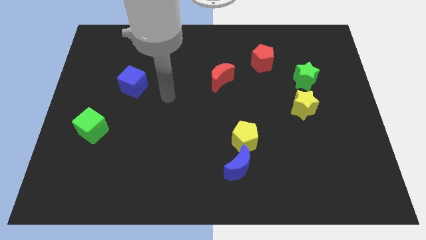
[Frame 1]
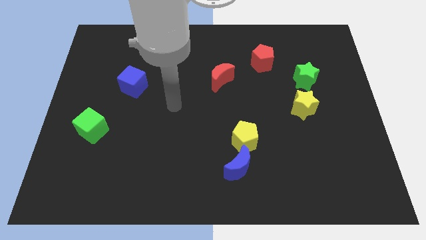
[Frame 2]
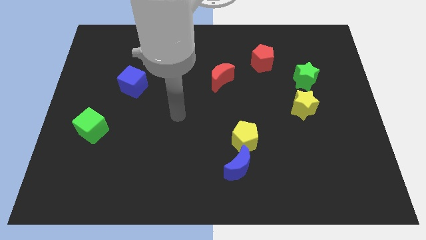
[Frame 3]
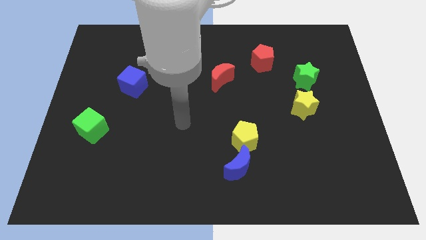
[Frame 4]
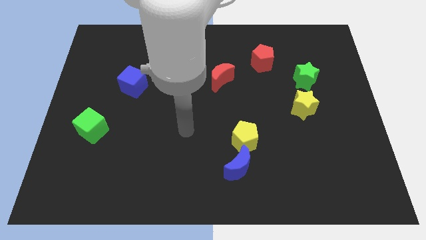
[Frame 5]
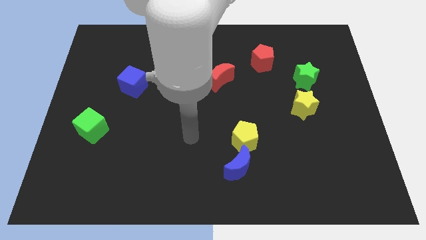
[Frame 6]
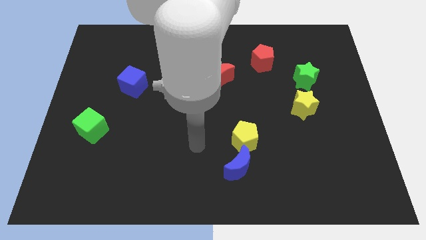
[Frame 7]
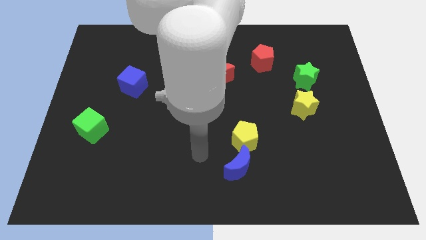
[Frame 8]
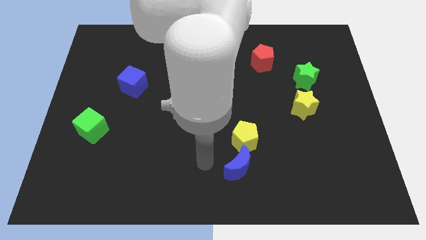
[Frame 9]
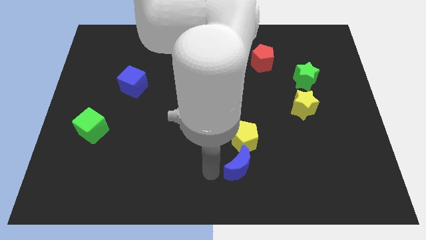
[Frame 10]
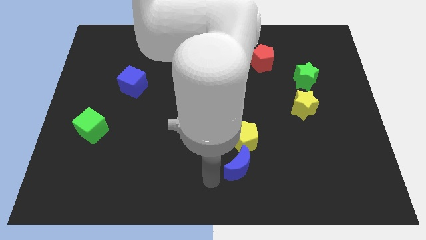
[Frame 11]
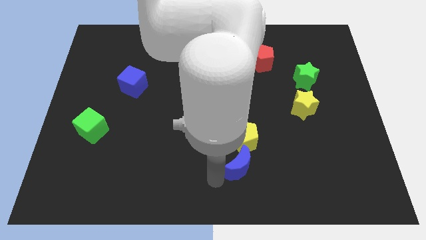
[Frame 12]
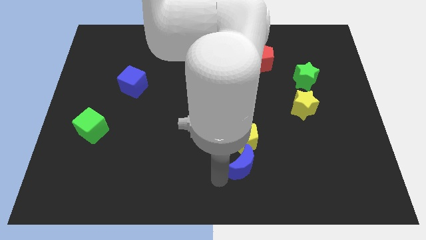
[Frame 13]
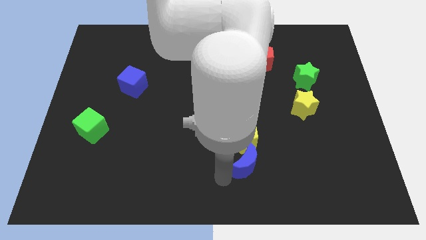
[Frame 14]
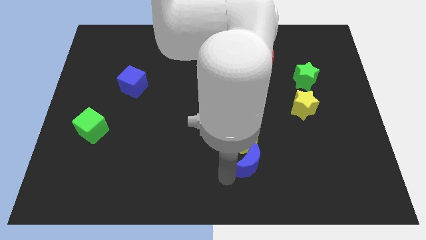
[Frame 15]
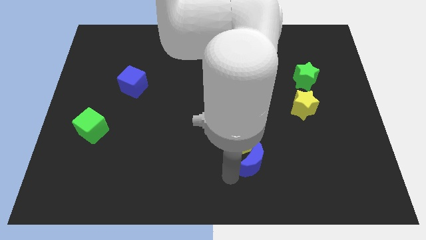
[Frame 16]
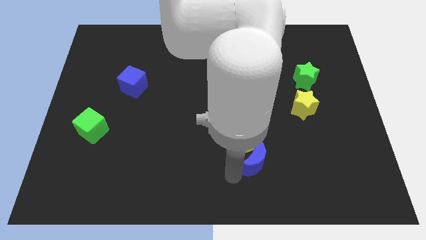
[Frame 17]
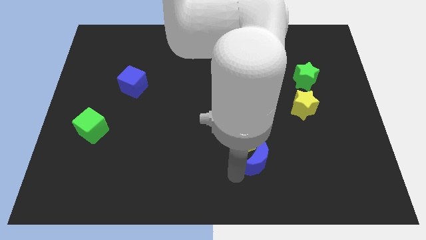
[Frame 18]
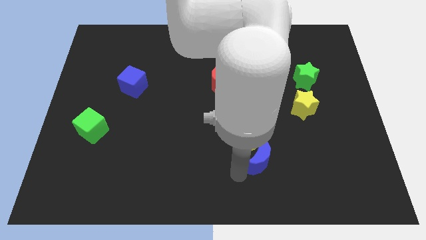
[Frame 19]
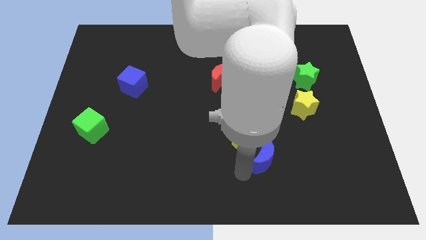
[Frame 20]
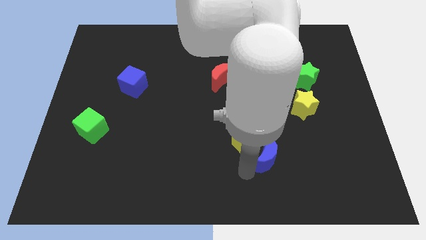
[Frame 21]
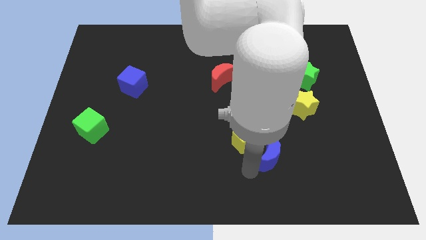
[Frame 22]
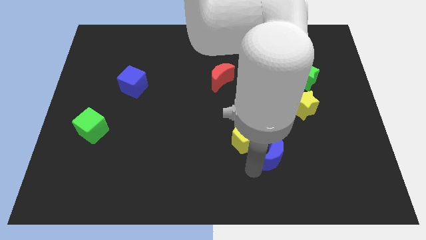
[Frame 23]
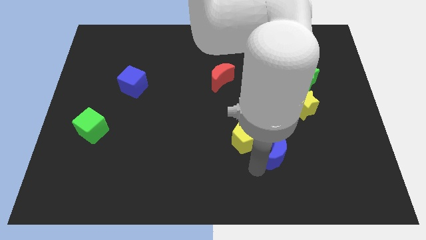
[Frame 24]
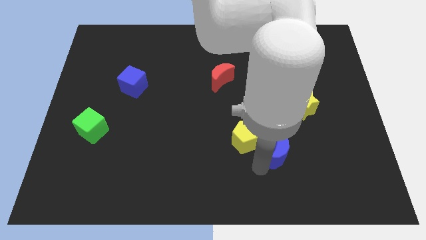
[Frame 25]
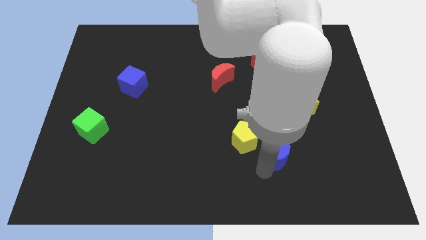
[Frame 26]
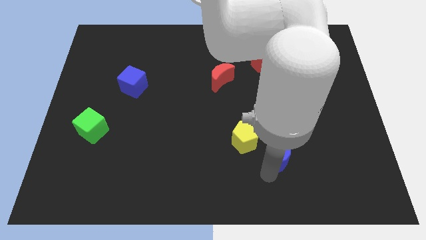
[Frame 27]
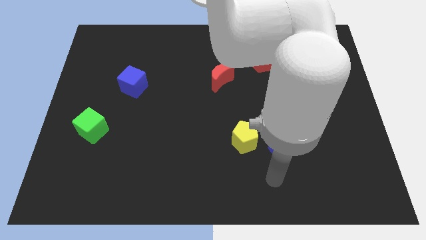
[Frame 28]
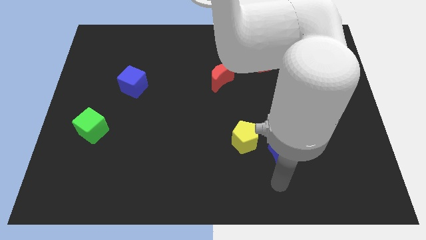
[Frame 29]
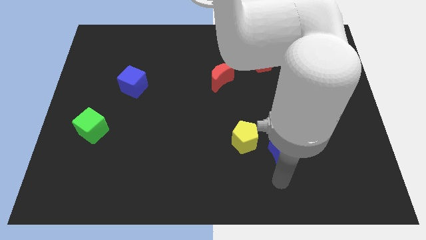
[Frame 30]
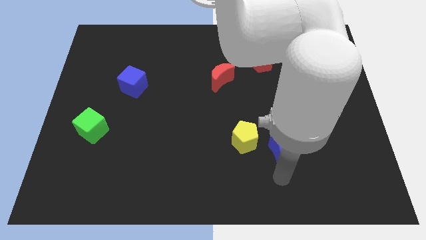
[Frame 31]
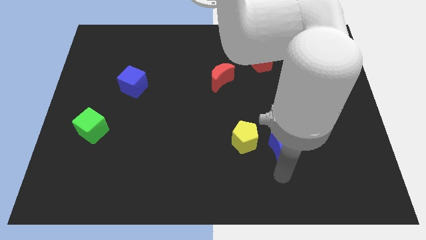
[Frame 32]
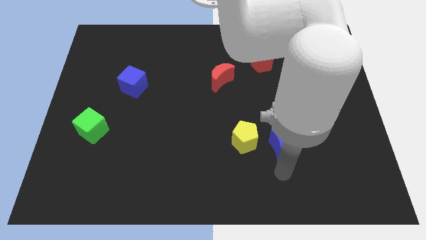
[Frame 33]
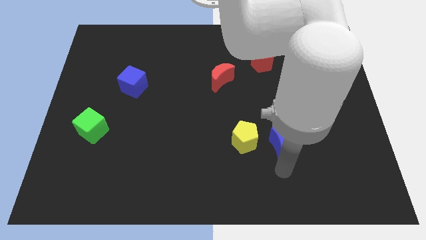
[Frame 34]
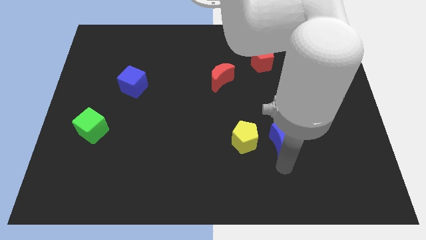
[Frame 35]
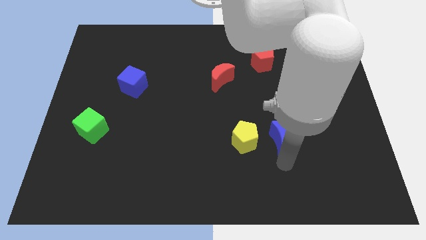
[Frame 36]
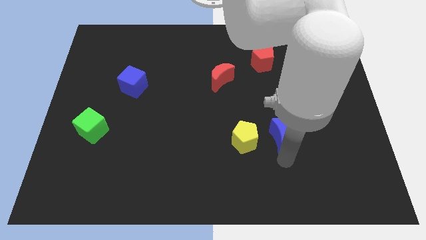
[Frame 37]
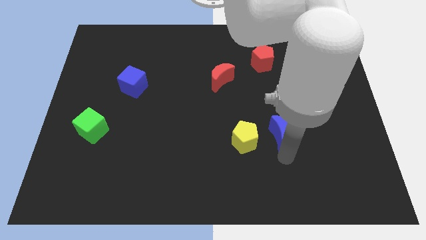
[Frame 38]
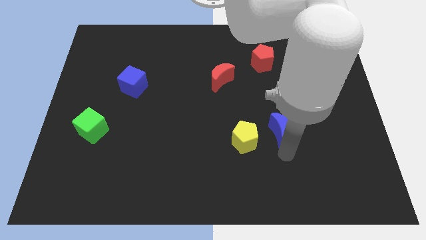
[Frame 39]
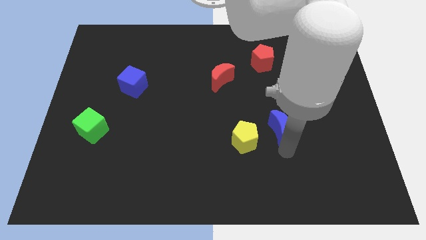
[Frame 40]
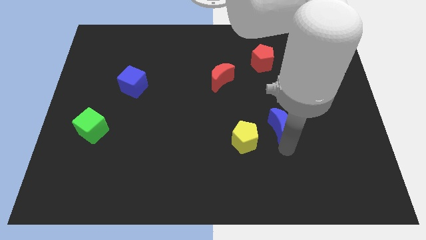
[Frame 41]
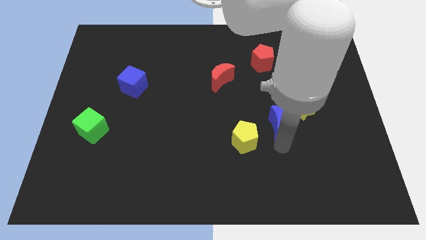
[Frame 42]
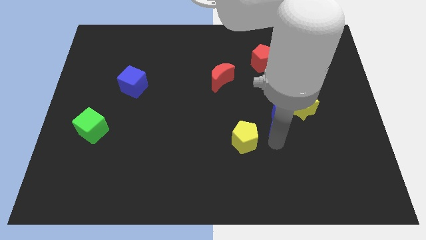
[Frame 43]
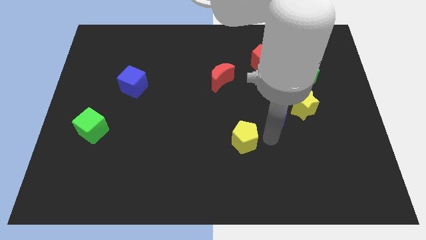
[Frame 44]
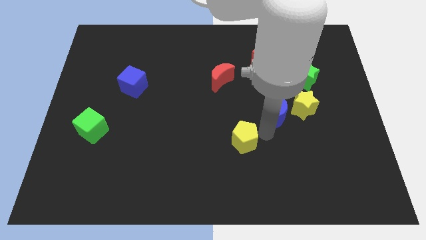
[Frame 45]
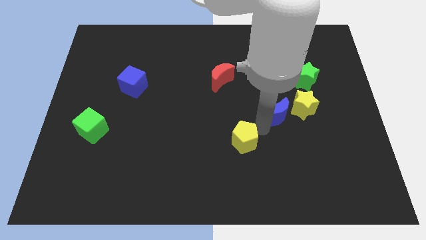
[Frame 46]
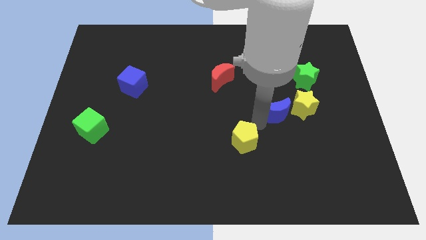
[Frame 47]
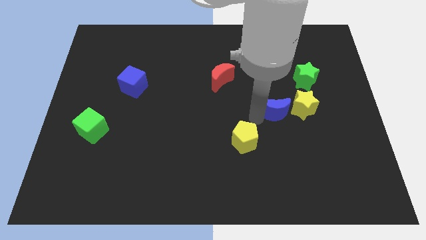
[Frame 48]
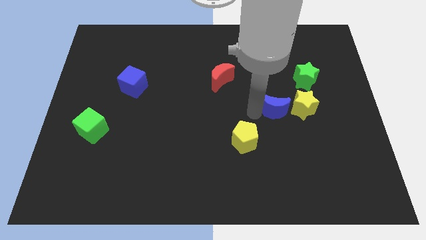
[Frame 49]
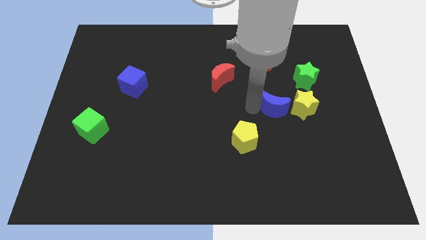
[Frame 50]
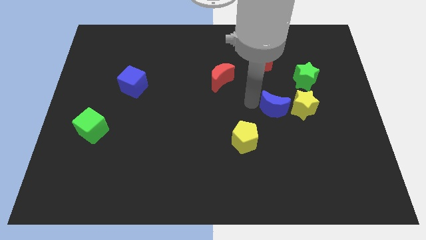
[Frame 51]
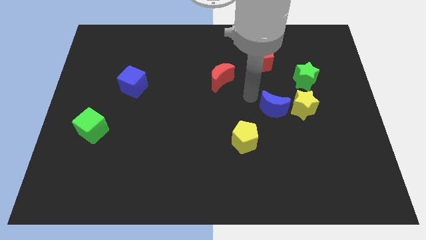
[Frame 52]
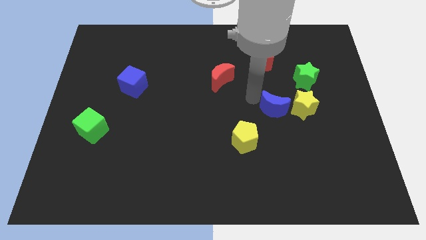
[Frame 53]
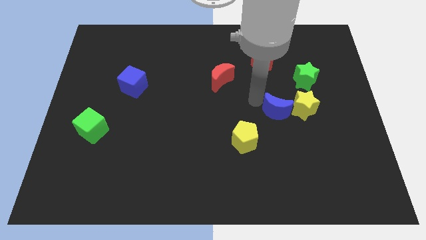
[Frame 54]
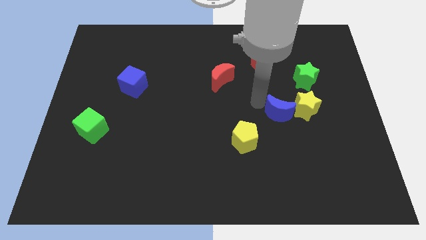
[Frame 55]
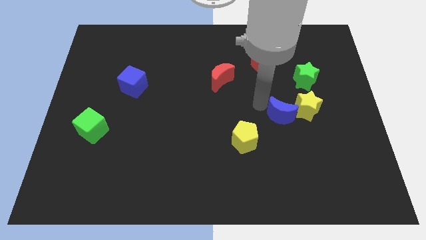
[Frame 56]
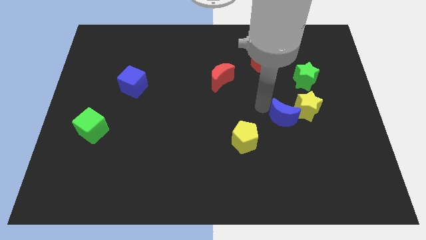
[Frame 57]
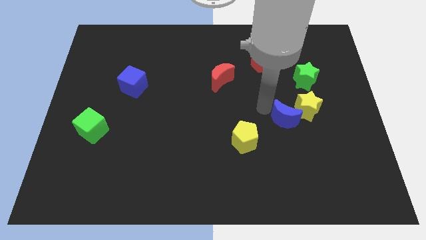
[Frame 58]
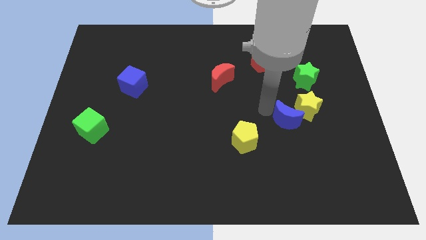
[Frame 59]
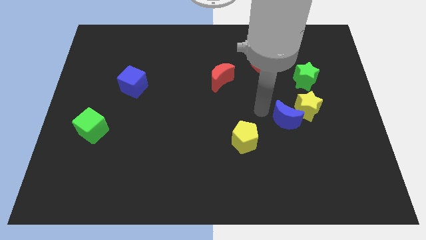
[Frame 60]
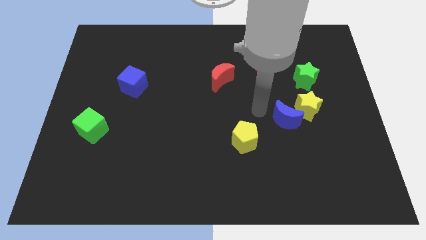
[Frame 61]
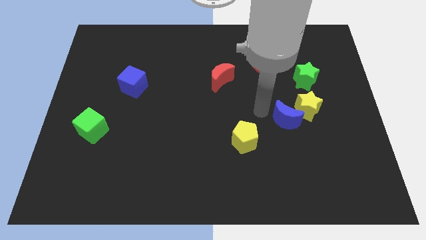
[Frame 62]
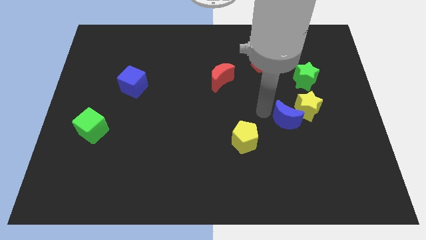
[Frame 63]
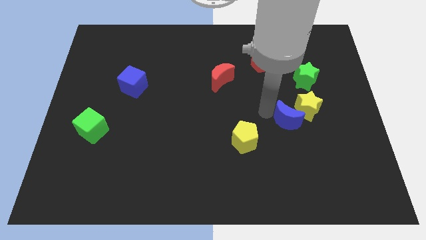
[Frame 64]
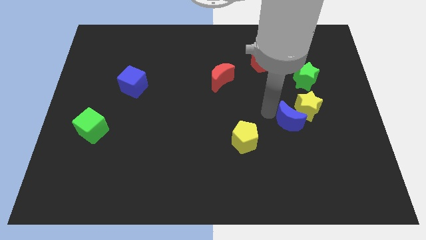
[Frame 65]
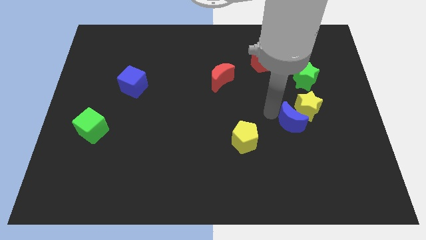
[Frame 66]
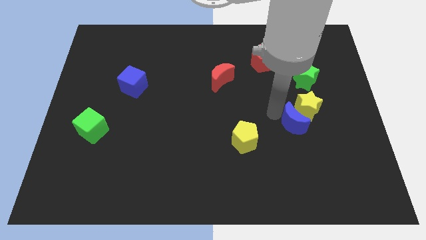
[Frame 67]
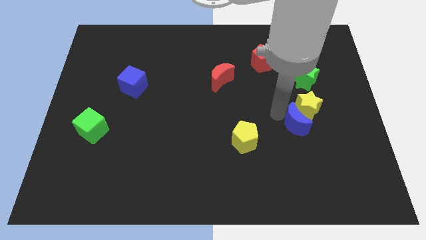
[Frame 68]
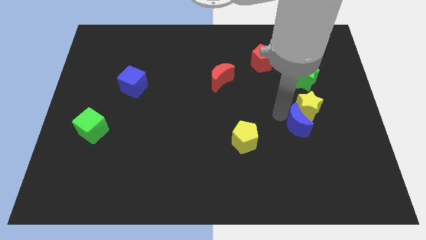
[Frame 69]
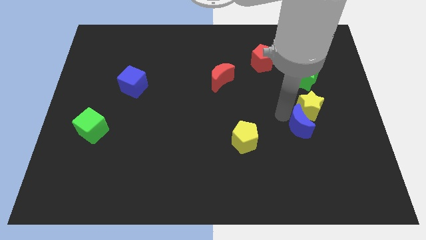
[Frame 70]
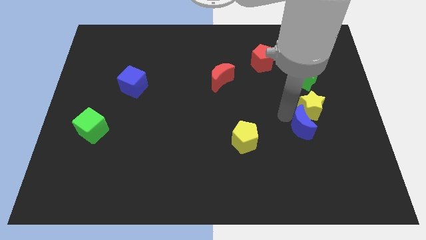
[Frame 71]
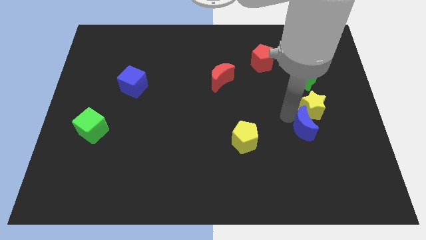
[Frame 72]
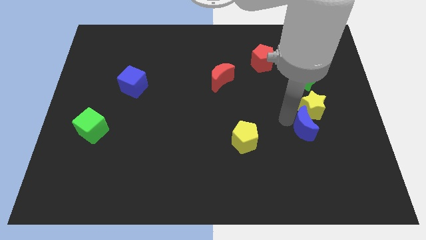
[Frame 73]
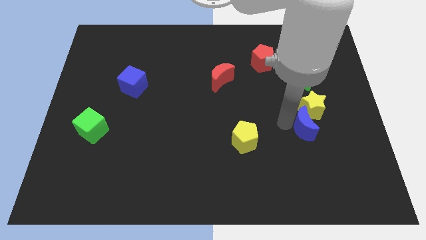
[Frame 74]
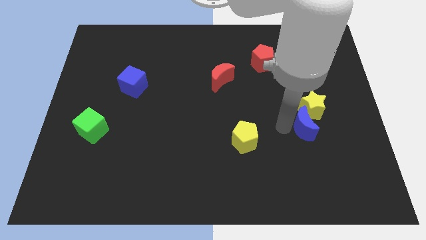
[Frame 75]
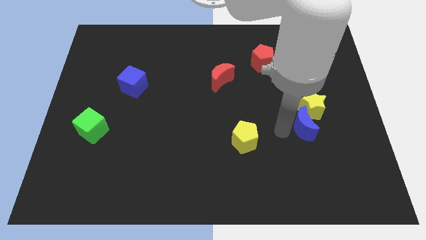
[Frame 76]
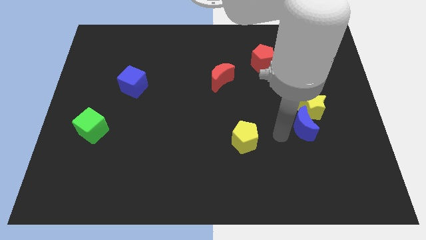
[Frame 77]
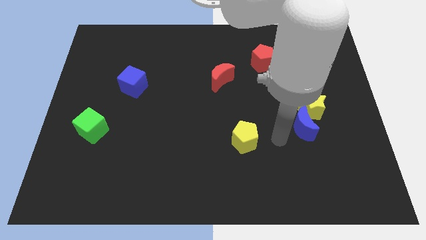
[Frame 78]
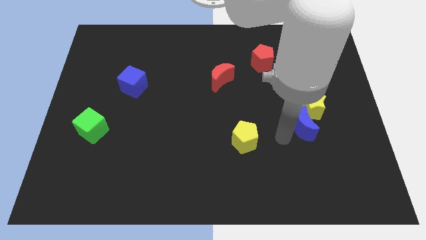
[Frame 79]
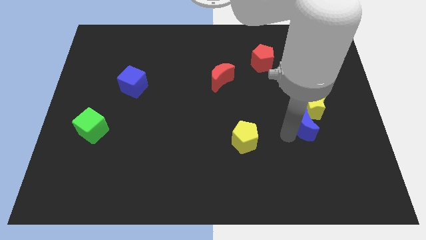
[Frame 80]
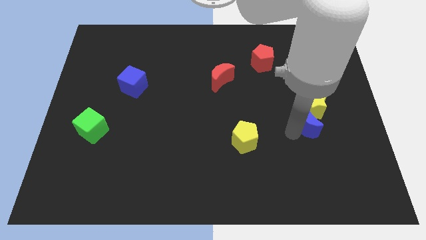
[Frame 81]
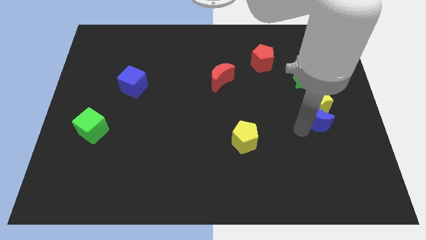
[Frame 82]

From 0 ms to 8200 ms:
slide the blue moon diagonally upwards and to the right

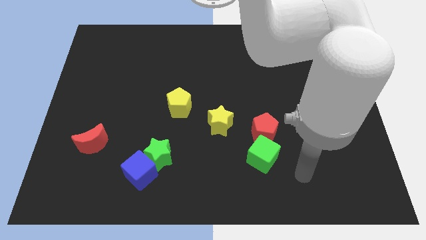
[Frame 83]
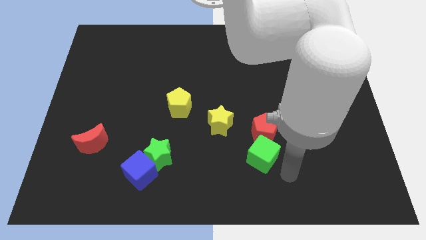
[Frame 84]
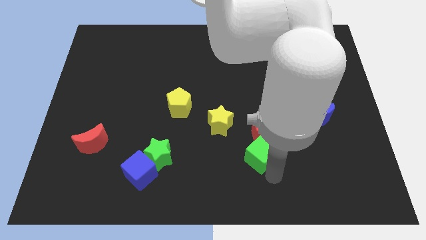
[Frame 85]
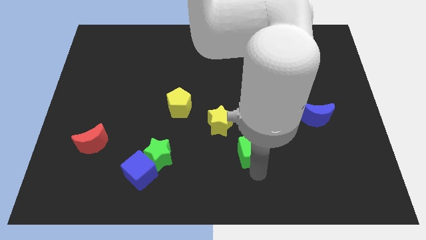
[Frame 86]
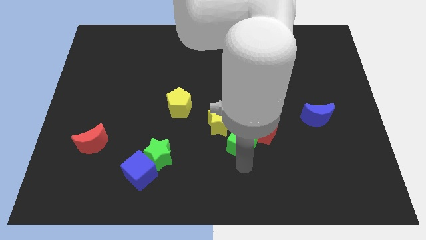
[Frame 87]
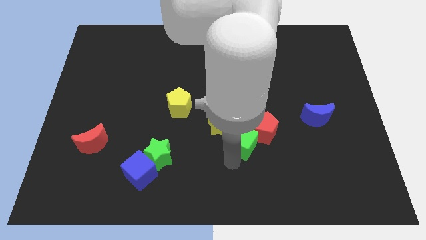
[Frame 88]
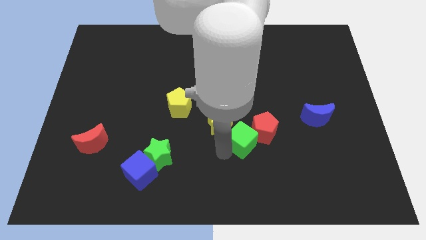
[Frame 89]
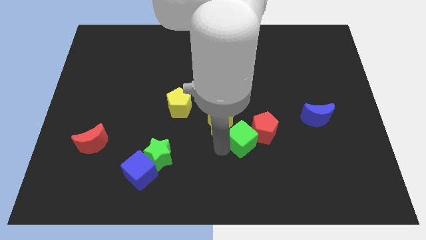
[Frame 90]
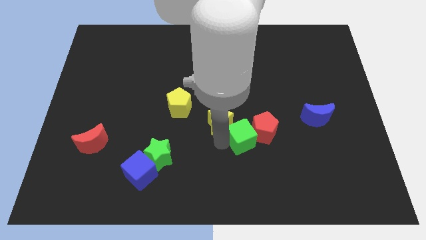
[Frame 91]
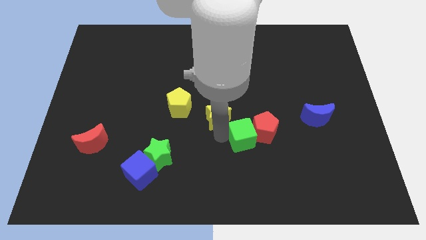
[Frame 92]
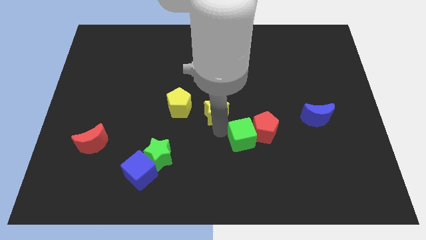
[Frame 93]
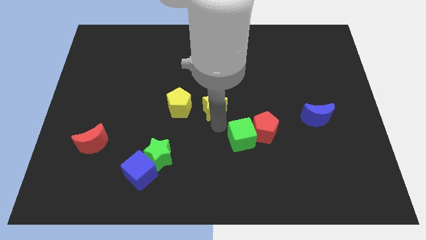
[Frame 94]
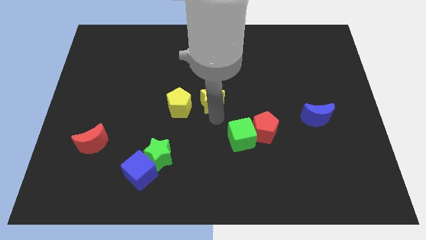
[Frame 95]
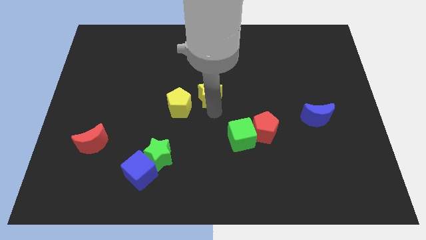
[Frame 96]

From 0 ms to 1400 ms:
push the yellow star a bit up
